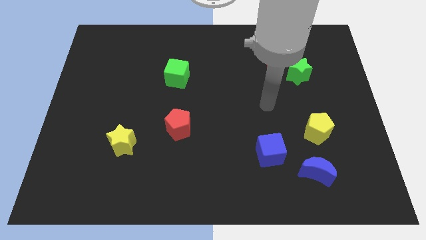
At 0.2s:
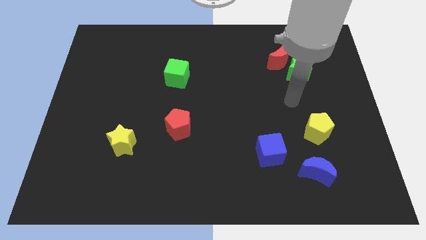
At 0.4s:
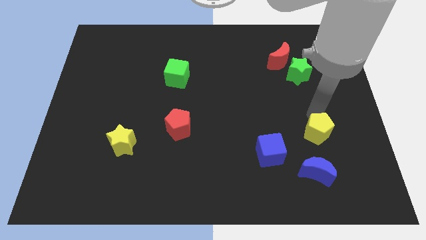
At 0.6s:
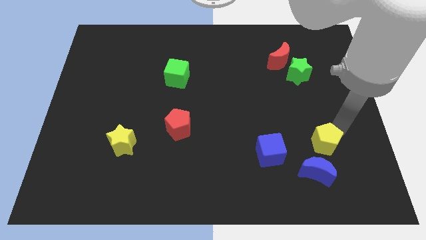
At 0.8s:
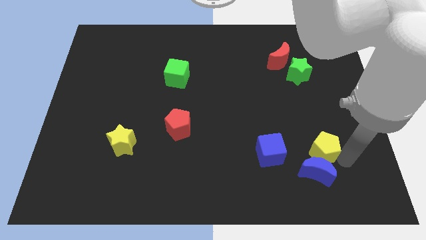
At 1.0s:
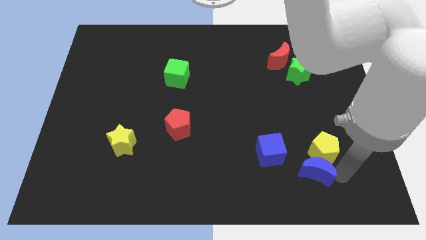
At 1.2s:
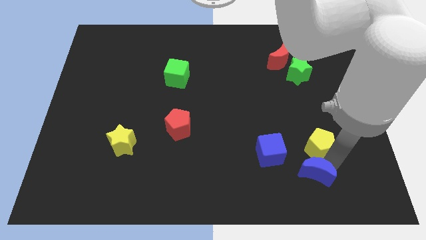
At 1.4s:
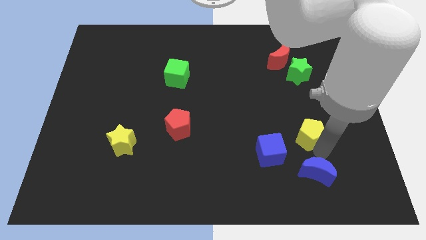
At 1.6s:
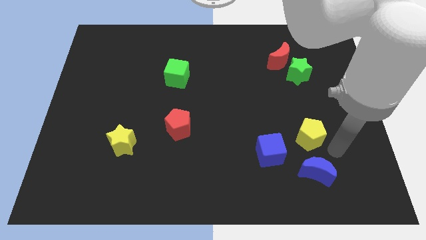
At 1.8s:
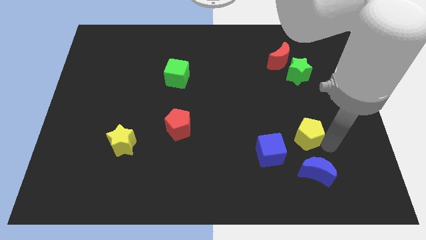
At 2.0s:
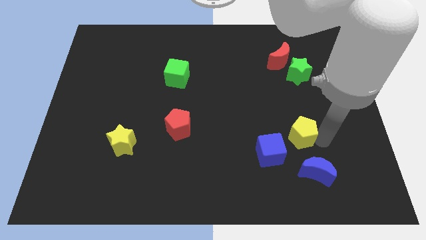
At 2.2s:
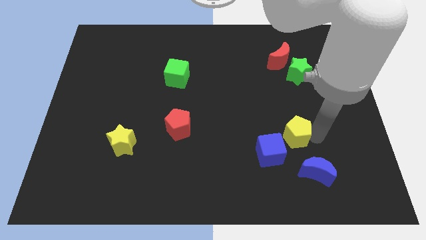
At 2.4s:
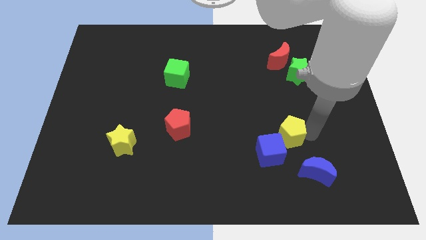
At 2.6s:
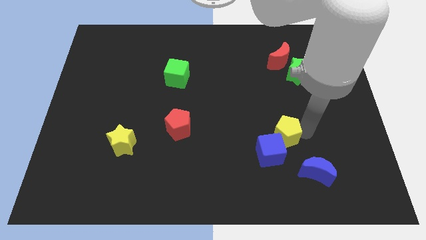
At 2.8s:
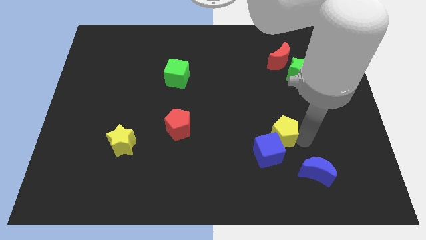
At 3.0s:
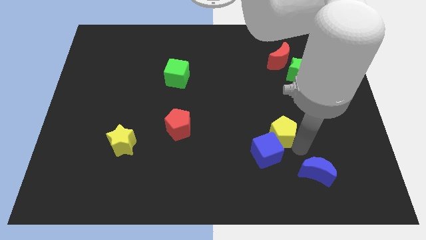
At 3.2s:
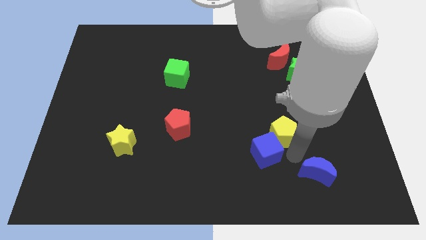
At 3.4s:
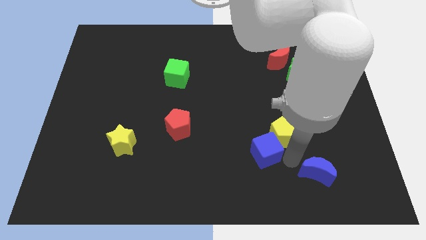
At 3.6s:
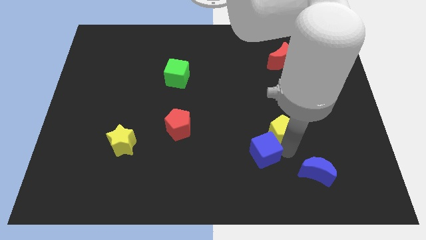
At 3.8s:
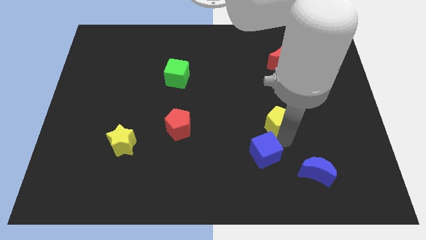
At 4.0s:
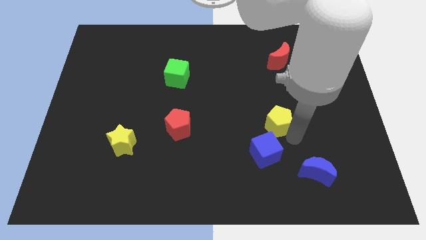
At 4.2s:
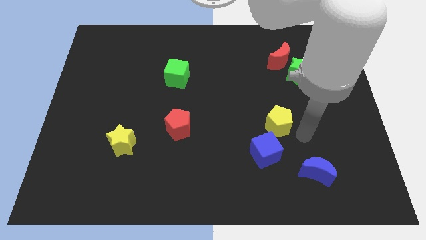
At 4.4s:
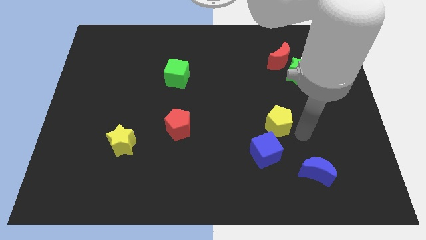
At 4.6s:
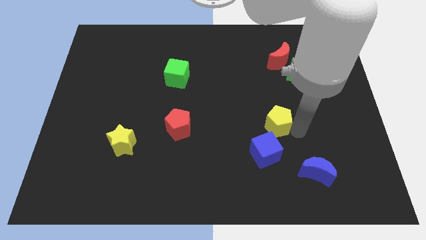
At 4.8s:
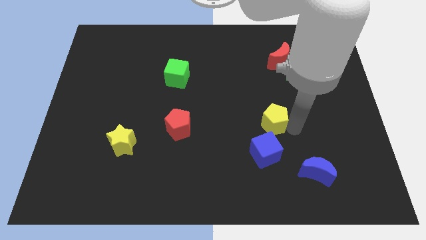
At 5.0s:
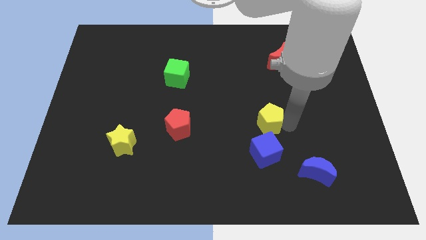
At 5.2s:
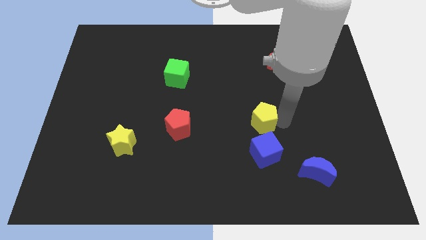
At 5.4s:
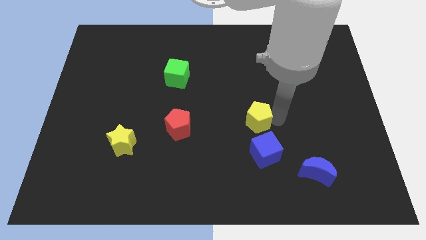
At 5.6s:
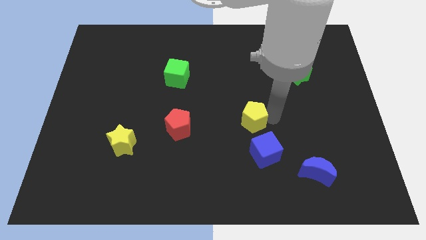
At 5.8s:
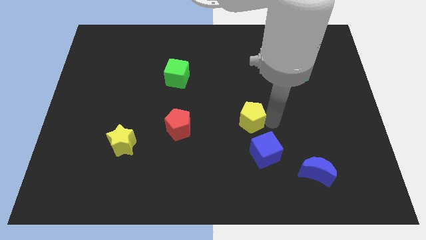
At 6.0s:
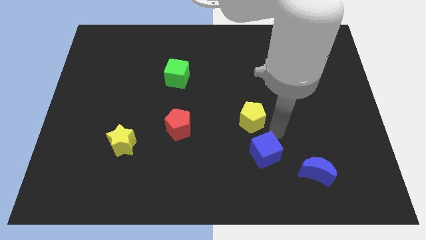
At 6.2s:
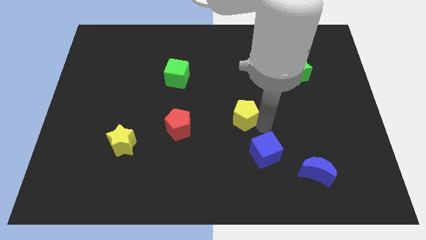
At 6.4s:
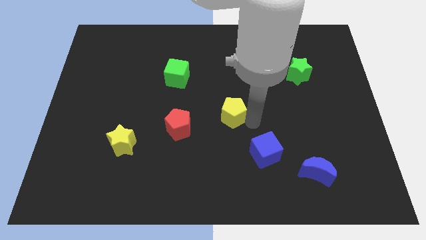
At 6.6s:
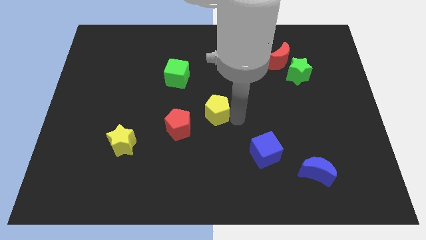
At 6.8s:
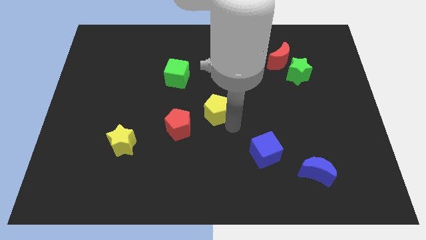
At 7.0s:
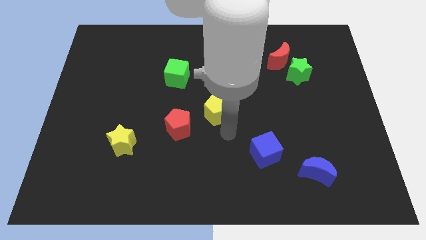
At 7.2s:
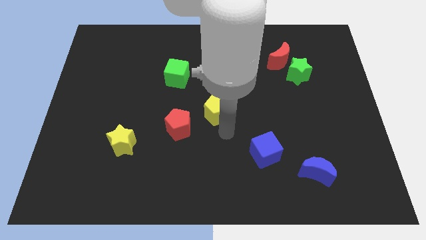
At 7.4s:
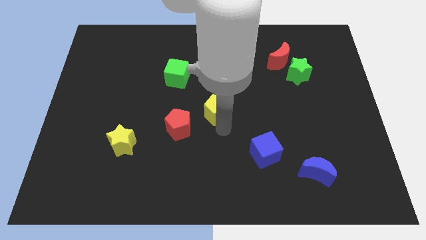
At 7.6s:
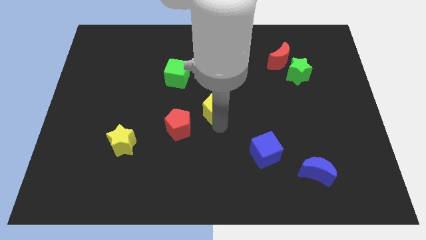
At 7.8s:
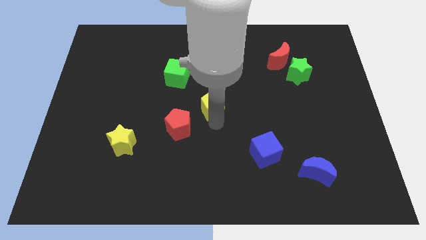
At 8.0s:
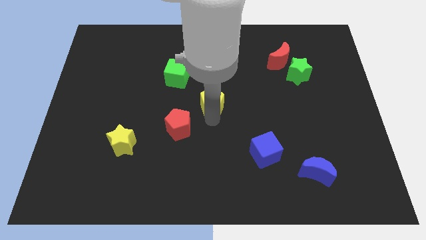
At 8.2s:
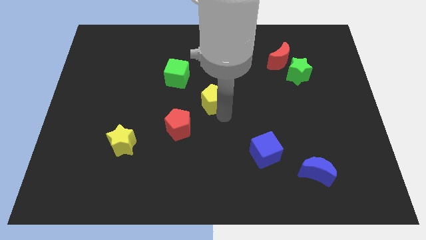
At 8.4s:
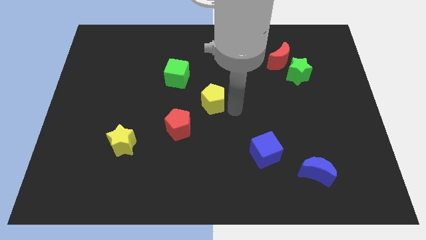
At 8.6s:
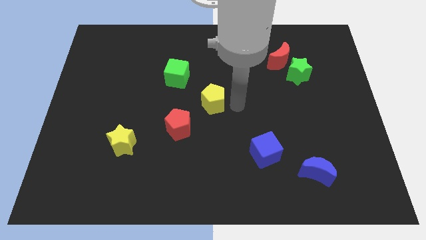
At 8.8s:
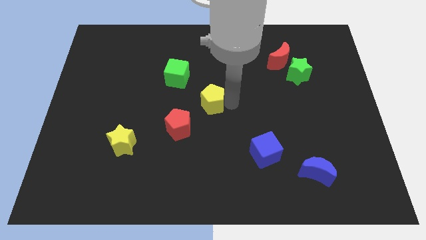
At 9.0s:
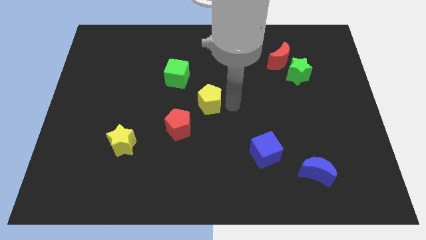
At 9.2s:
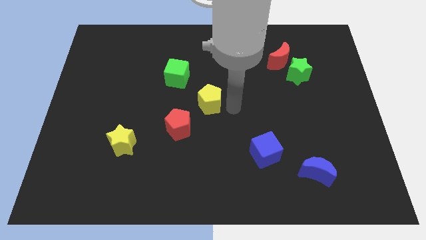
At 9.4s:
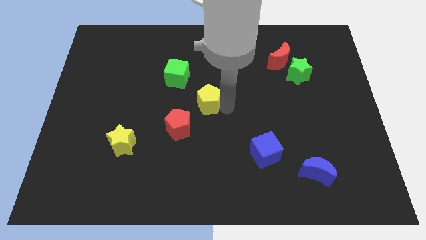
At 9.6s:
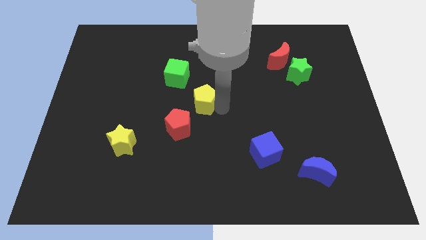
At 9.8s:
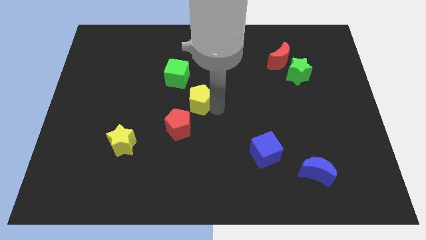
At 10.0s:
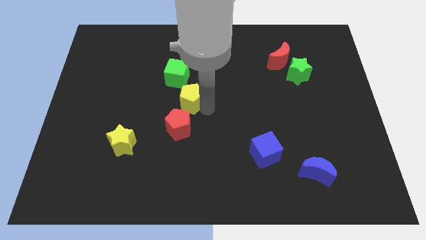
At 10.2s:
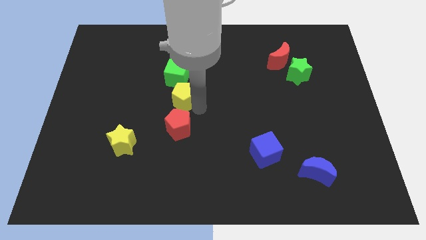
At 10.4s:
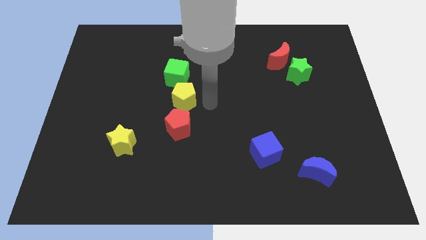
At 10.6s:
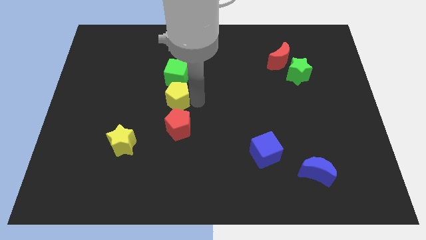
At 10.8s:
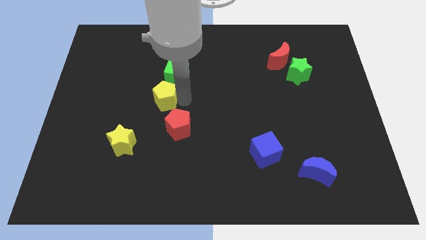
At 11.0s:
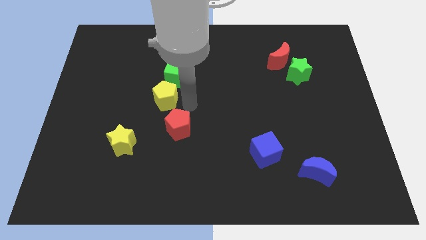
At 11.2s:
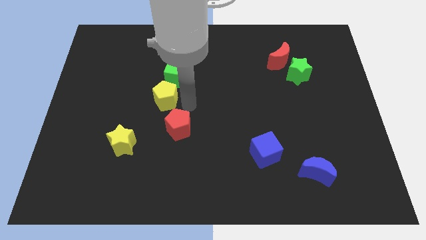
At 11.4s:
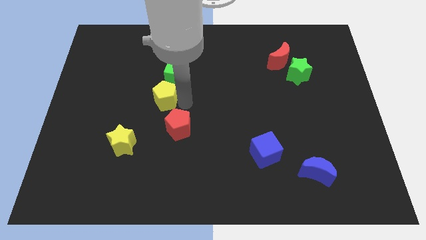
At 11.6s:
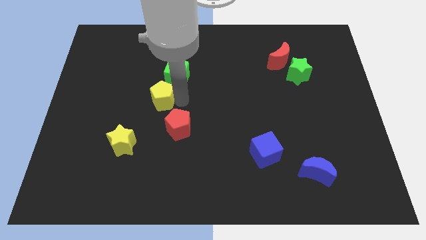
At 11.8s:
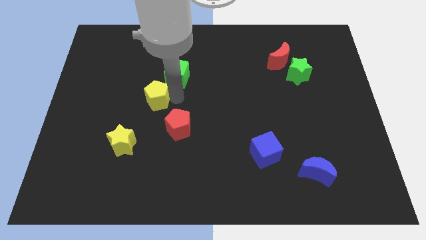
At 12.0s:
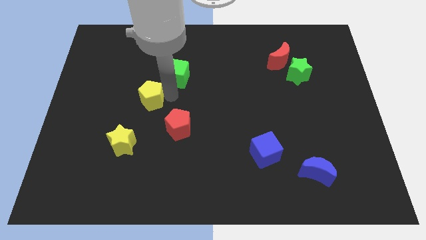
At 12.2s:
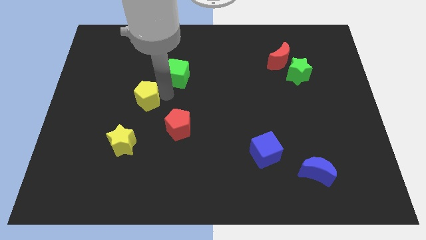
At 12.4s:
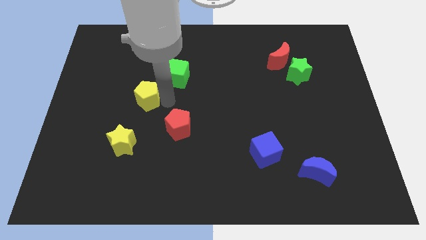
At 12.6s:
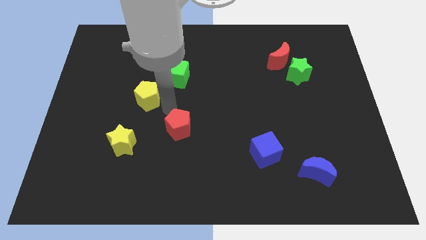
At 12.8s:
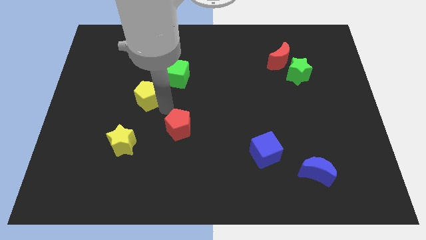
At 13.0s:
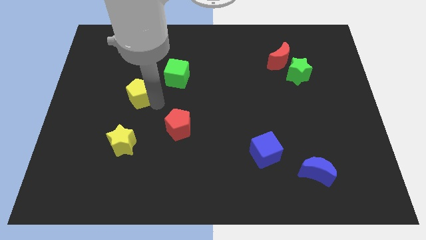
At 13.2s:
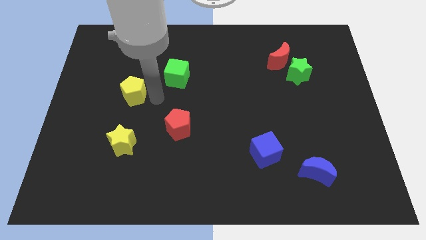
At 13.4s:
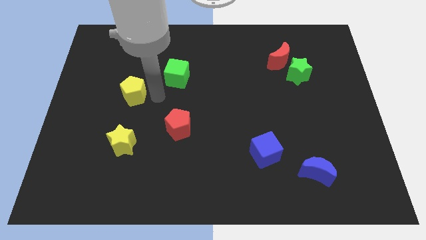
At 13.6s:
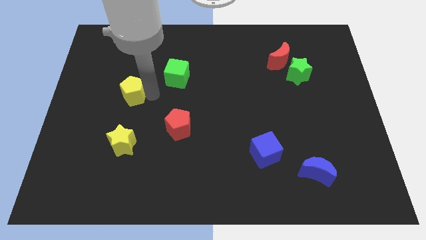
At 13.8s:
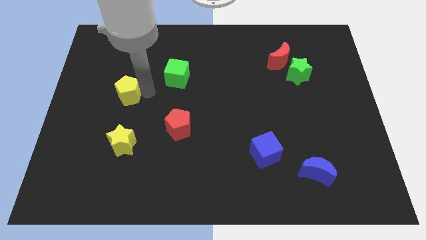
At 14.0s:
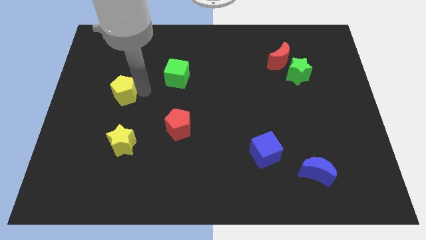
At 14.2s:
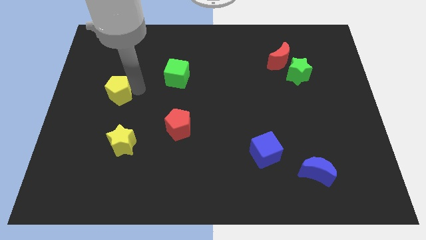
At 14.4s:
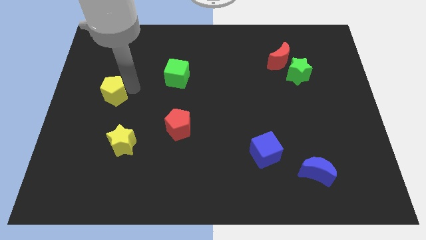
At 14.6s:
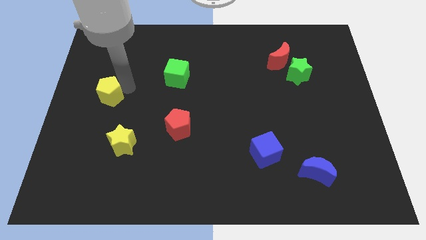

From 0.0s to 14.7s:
put the yellow pentagon to the left side of the board

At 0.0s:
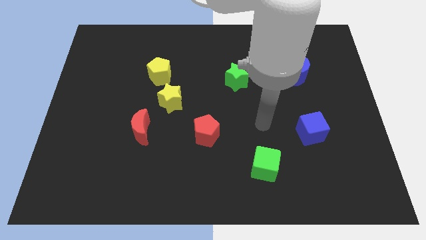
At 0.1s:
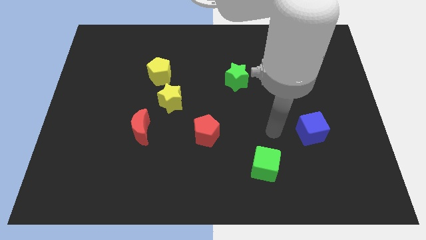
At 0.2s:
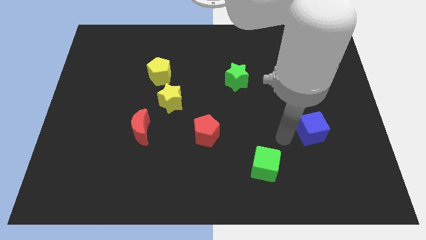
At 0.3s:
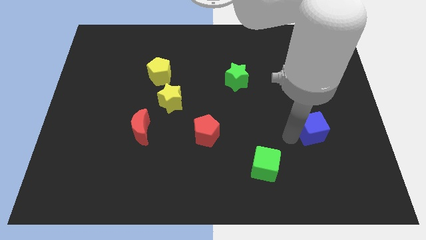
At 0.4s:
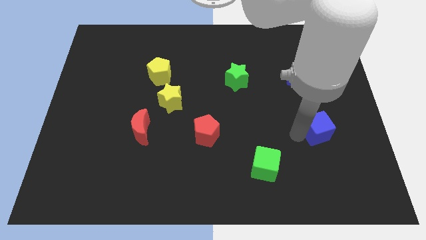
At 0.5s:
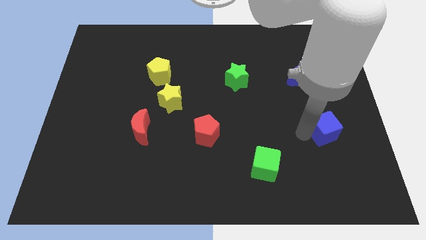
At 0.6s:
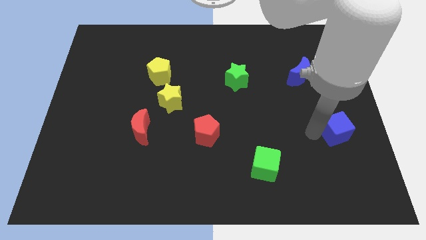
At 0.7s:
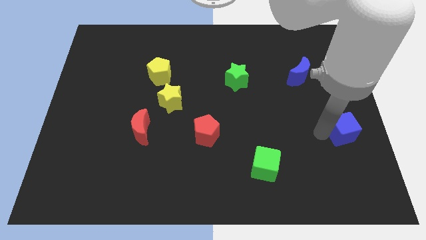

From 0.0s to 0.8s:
slide the blue cube to the right side of the board
